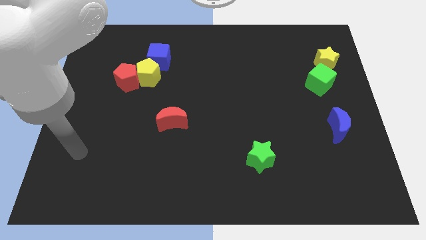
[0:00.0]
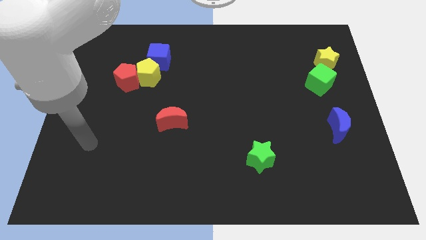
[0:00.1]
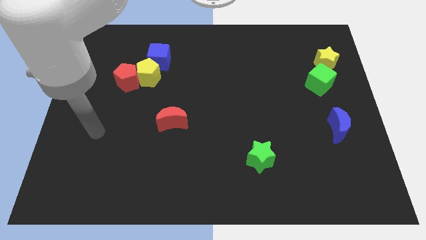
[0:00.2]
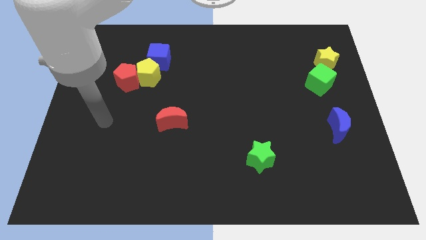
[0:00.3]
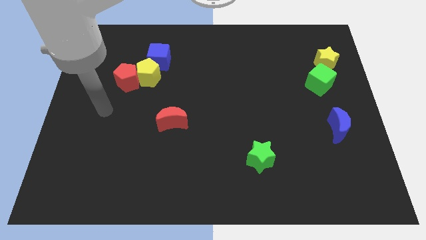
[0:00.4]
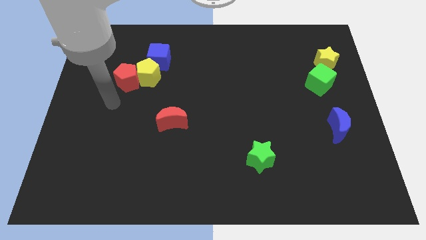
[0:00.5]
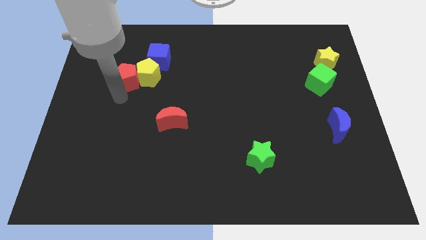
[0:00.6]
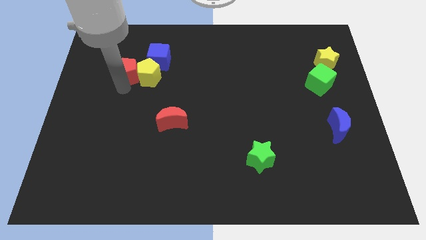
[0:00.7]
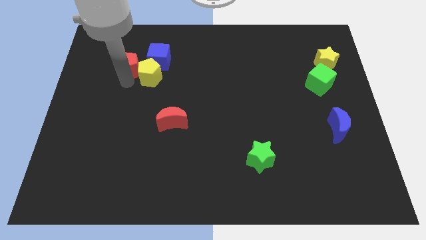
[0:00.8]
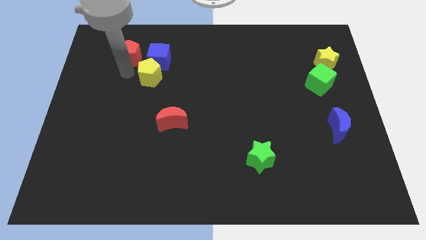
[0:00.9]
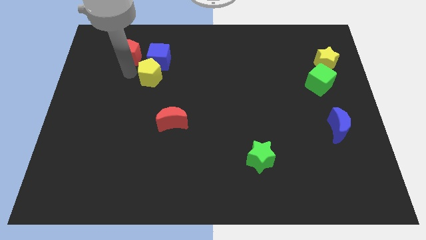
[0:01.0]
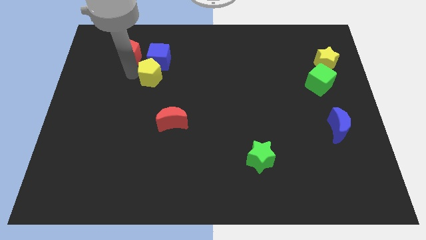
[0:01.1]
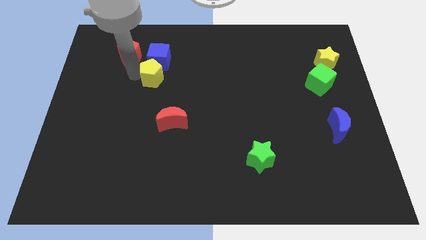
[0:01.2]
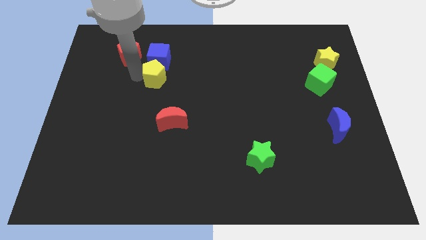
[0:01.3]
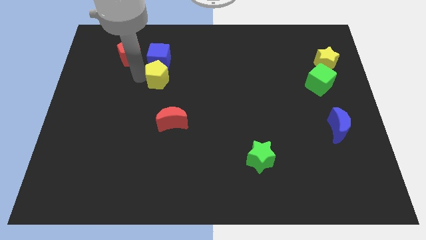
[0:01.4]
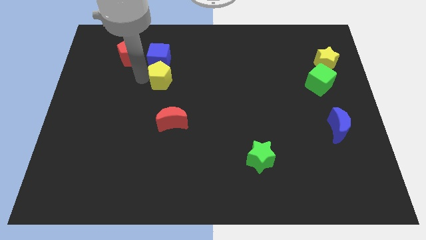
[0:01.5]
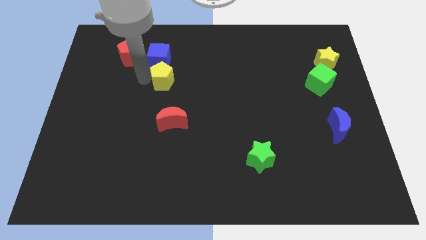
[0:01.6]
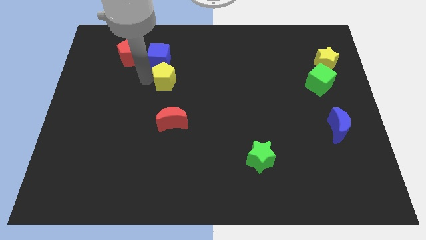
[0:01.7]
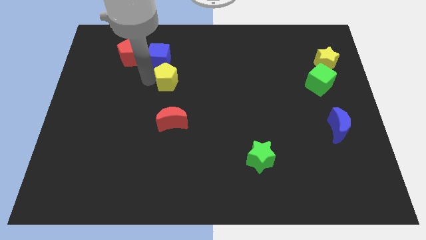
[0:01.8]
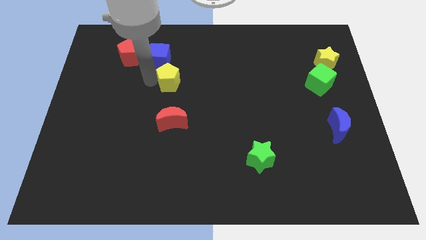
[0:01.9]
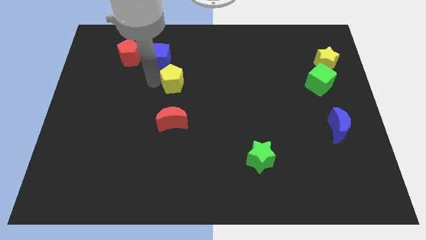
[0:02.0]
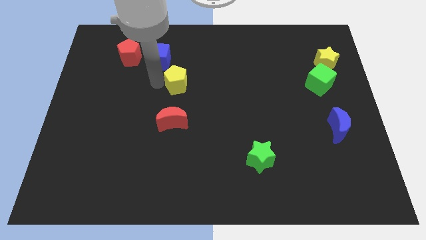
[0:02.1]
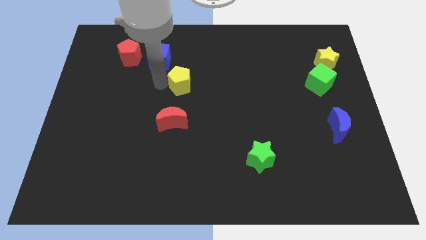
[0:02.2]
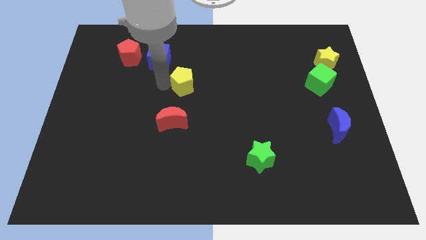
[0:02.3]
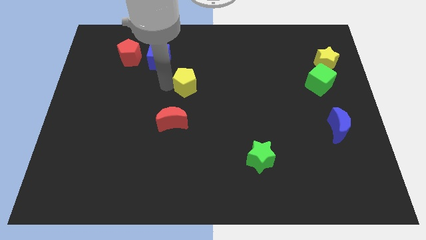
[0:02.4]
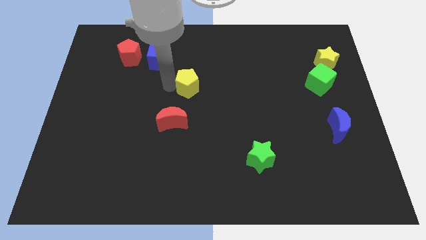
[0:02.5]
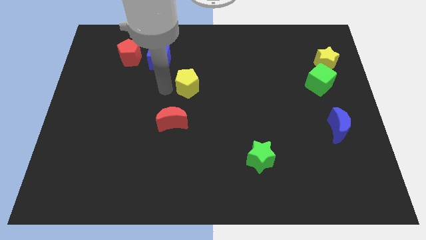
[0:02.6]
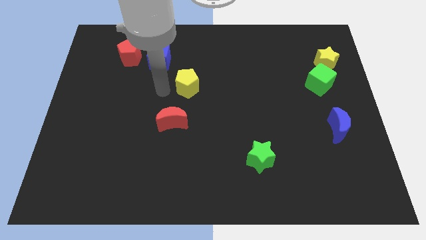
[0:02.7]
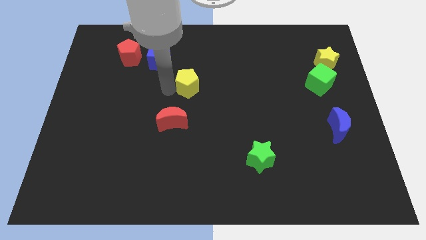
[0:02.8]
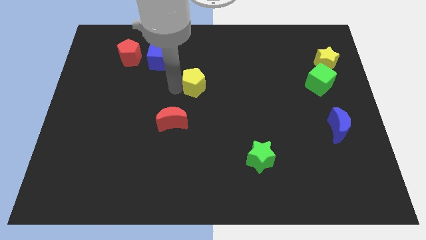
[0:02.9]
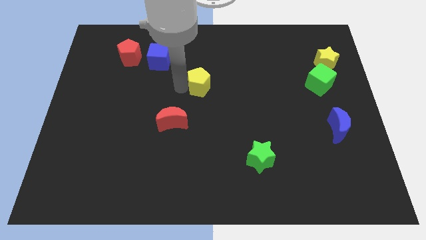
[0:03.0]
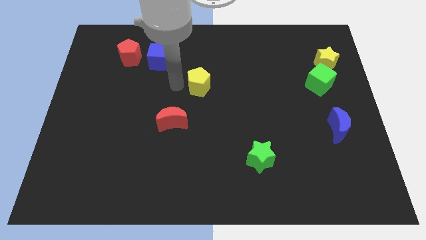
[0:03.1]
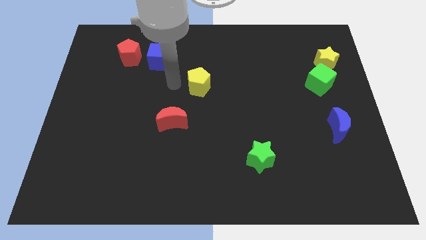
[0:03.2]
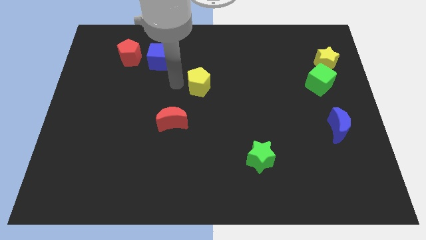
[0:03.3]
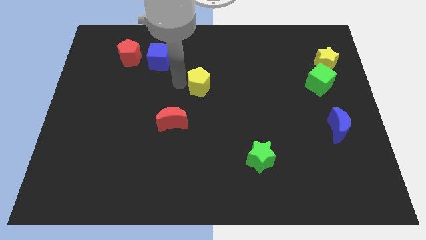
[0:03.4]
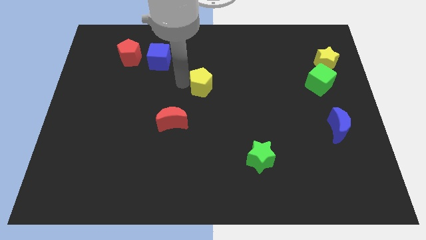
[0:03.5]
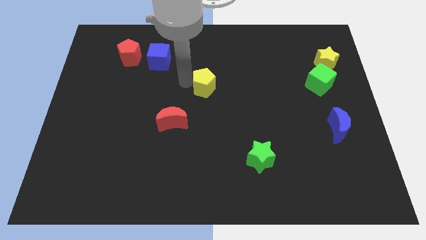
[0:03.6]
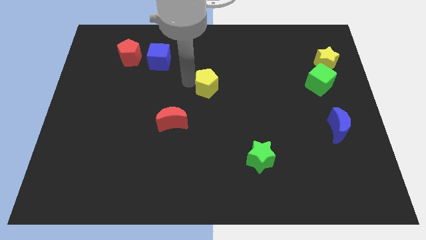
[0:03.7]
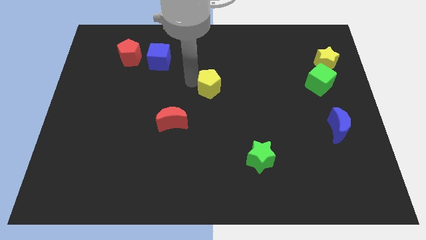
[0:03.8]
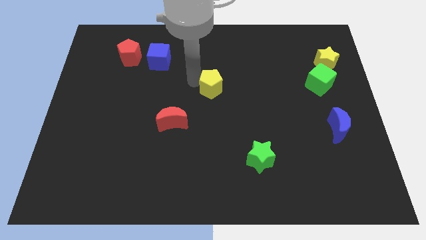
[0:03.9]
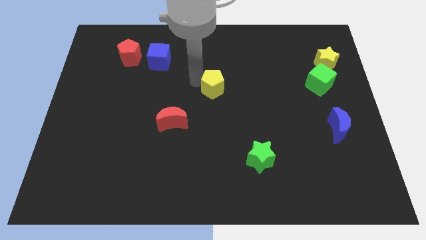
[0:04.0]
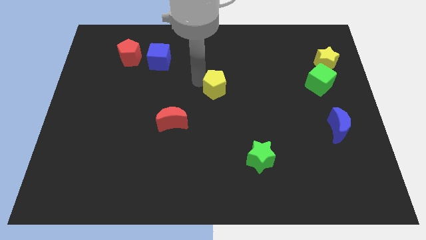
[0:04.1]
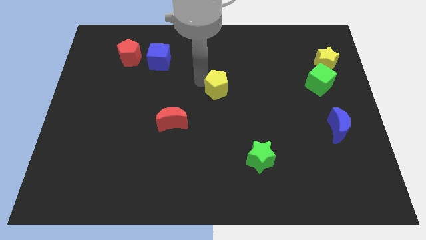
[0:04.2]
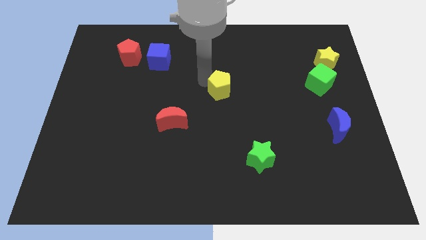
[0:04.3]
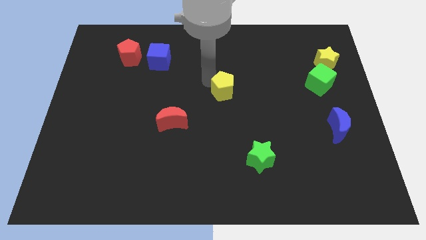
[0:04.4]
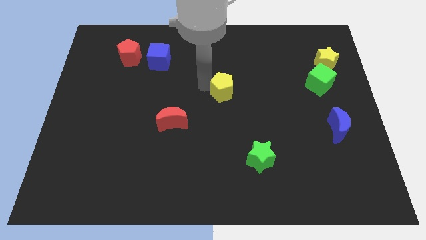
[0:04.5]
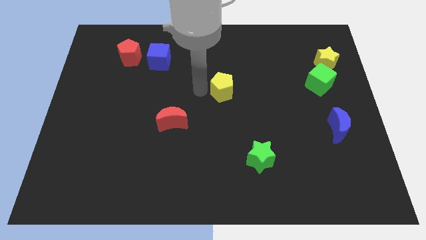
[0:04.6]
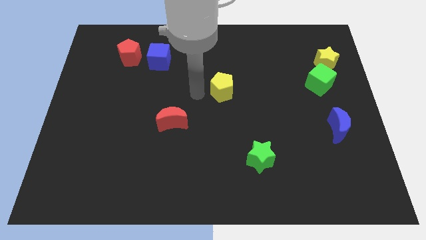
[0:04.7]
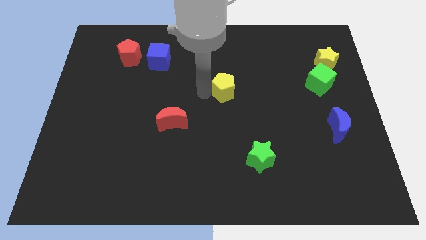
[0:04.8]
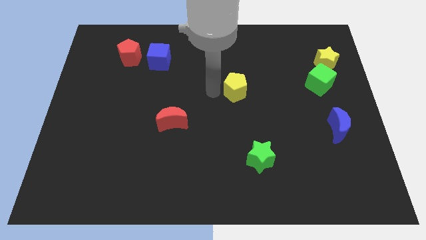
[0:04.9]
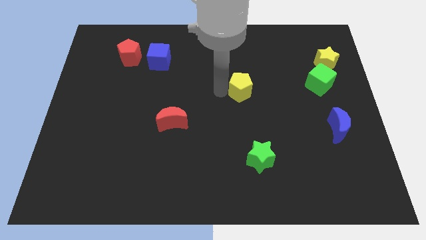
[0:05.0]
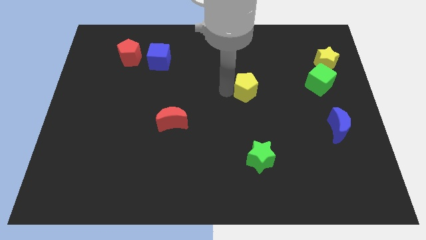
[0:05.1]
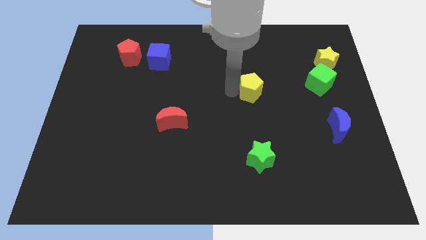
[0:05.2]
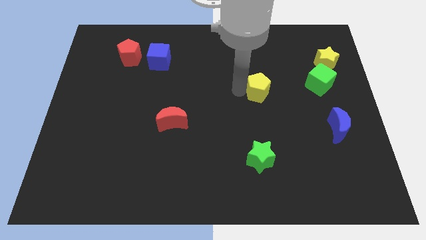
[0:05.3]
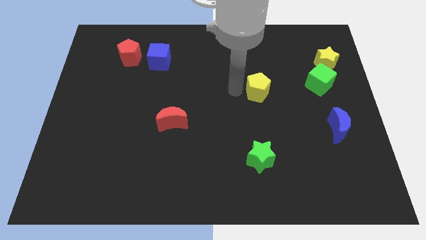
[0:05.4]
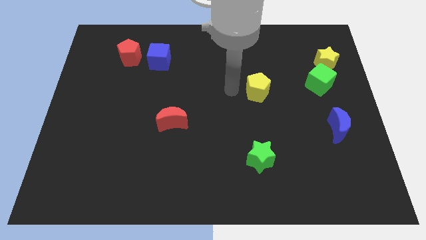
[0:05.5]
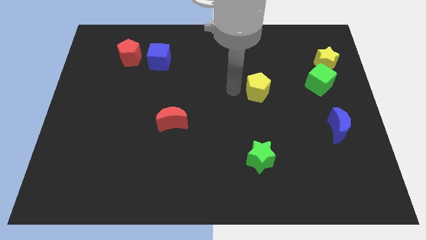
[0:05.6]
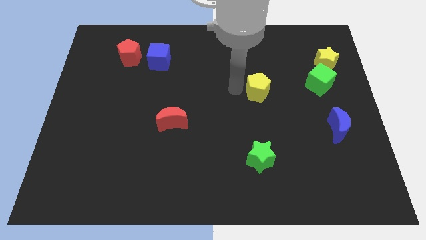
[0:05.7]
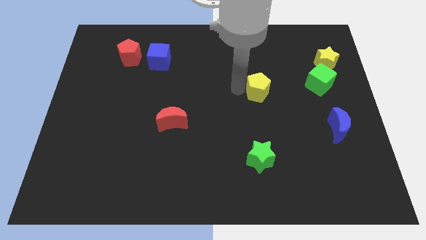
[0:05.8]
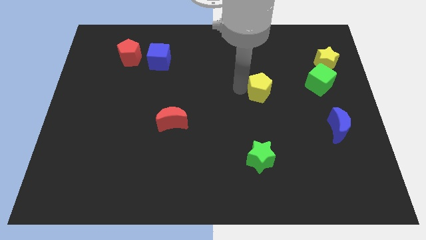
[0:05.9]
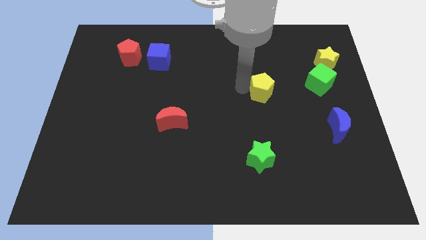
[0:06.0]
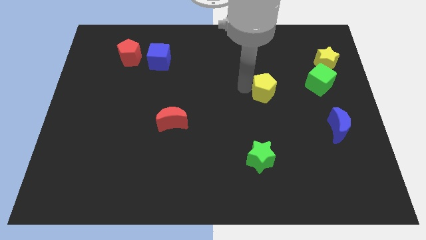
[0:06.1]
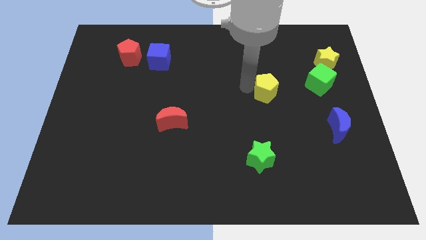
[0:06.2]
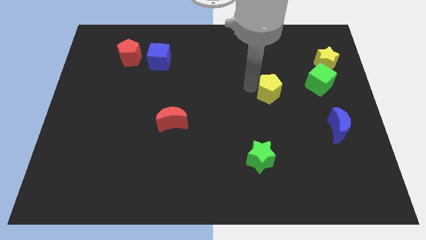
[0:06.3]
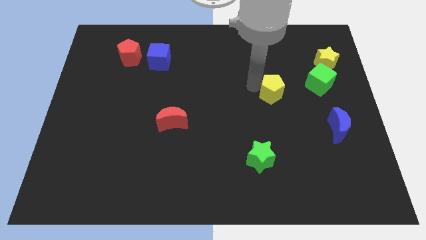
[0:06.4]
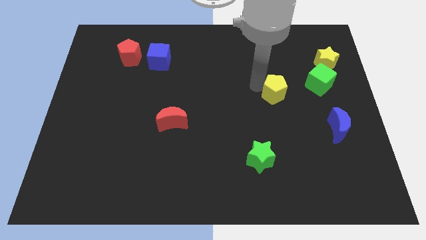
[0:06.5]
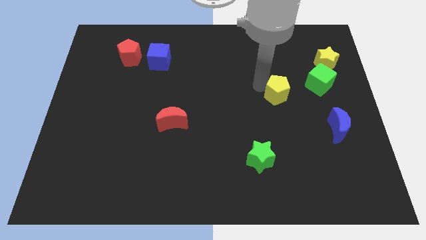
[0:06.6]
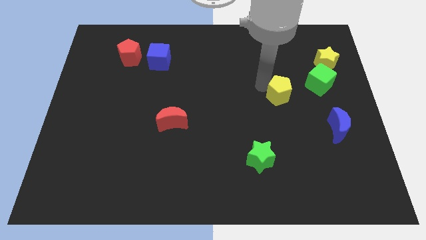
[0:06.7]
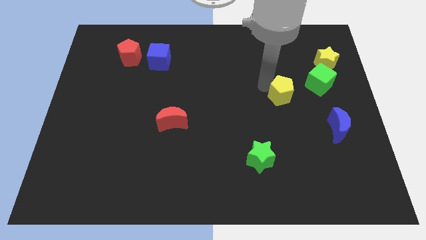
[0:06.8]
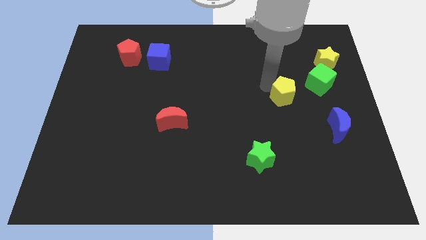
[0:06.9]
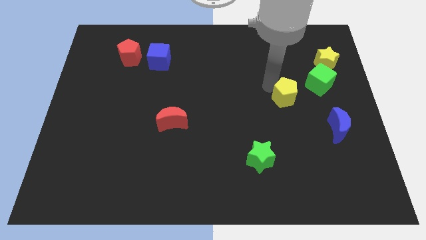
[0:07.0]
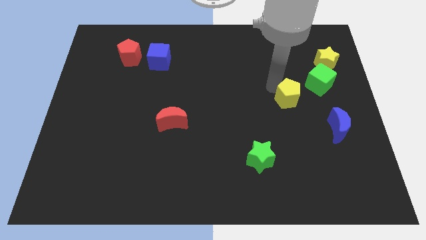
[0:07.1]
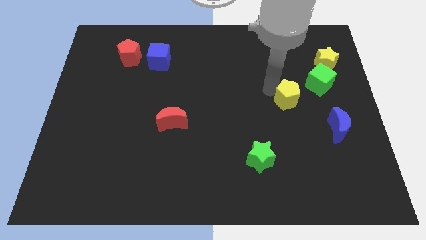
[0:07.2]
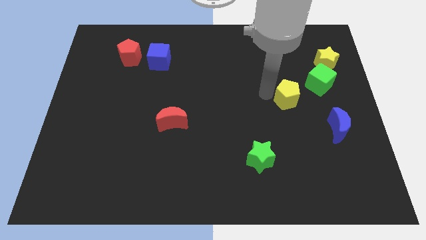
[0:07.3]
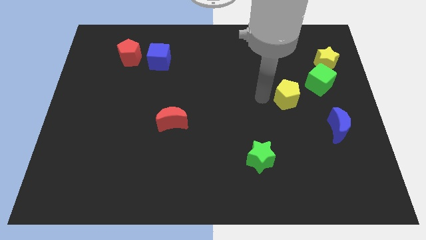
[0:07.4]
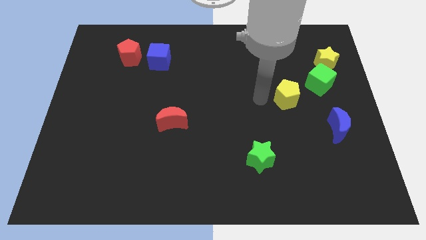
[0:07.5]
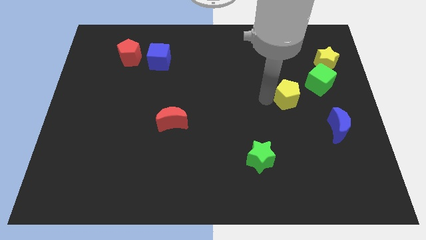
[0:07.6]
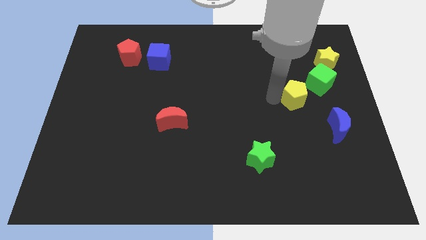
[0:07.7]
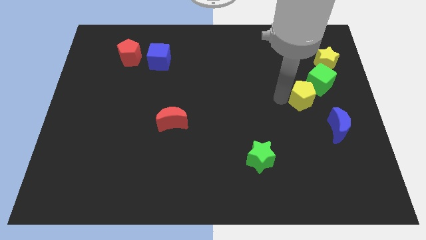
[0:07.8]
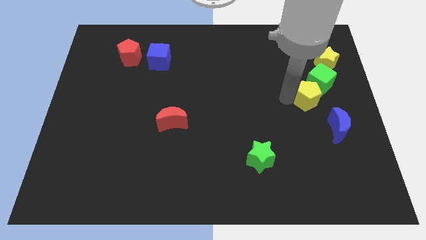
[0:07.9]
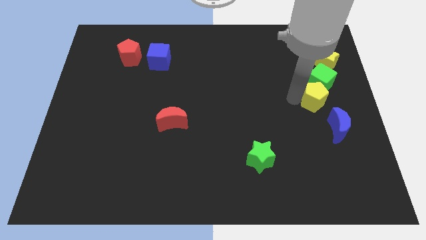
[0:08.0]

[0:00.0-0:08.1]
move the yellow pentagon to the bottom side of the yellow star
